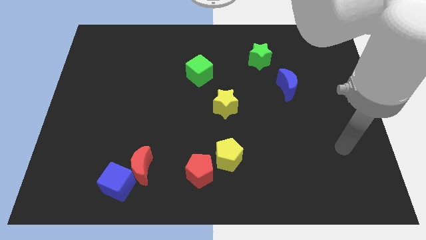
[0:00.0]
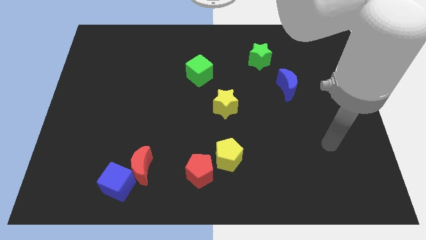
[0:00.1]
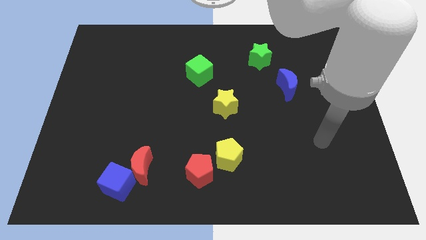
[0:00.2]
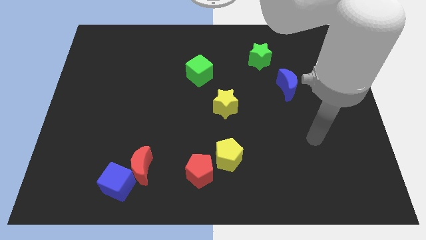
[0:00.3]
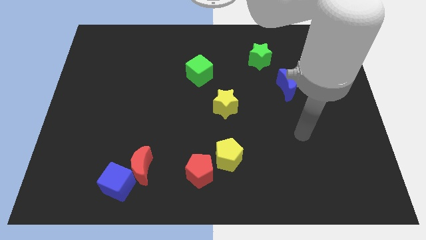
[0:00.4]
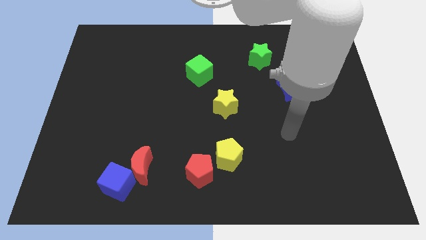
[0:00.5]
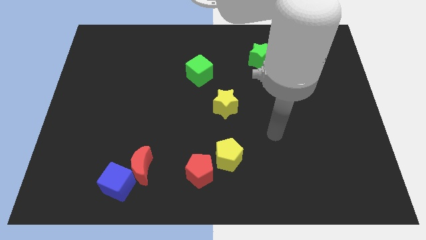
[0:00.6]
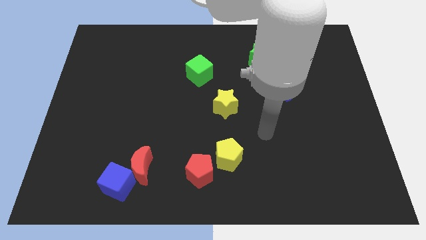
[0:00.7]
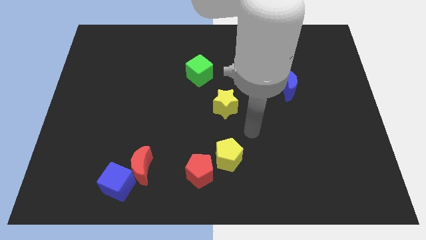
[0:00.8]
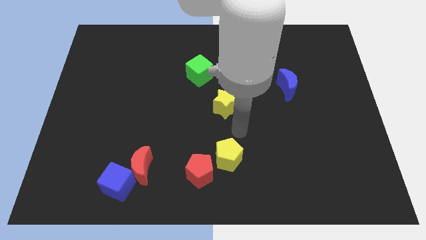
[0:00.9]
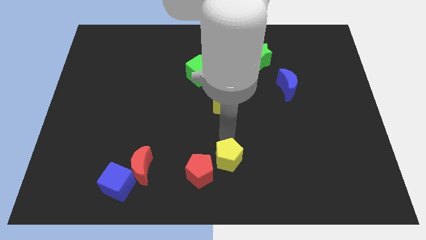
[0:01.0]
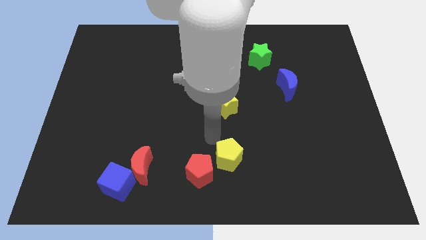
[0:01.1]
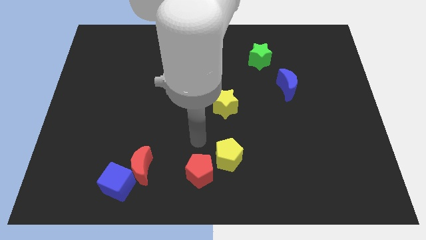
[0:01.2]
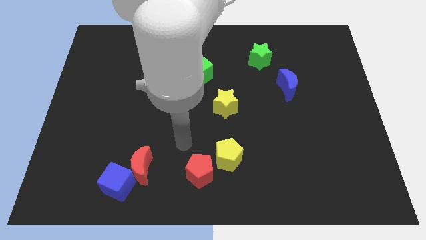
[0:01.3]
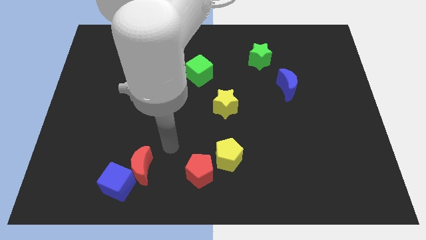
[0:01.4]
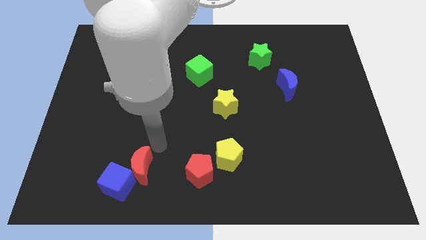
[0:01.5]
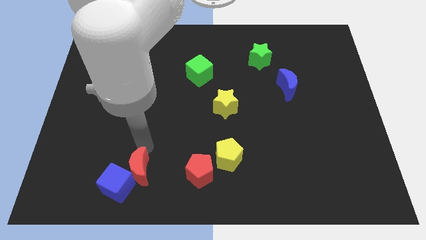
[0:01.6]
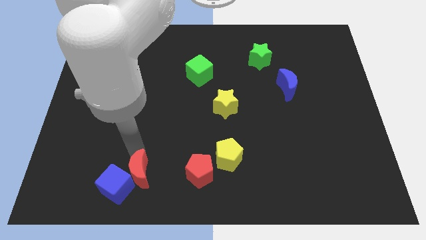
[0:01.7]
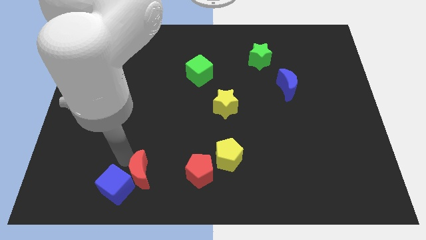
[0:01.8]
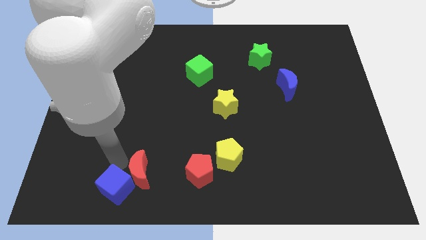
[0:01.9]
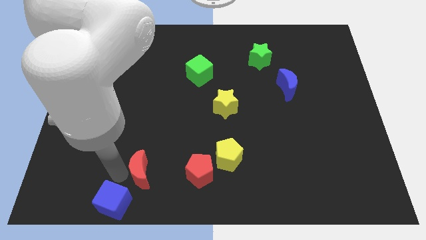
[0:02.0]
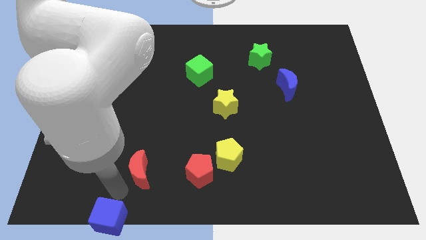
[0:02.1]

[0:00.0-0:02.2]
separate the red moon from the blue cube

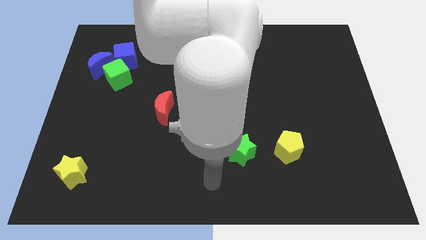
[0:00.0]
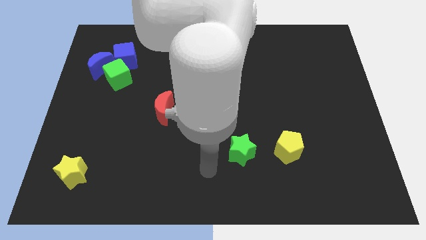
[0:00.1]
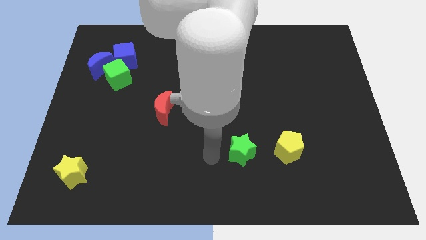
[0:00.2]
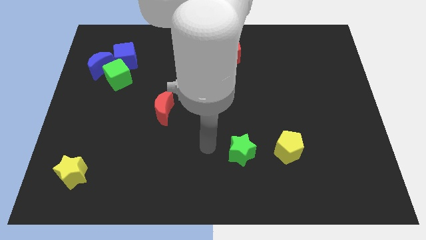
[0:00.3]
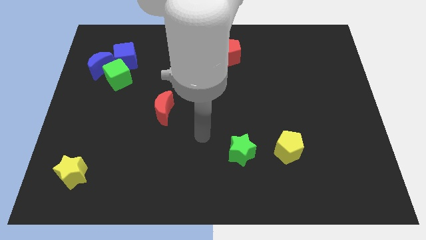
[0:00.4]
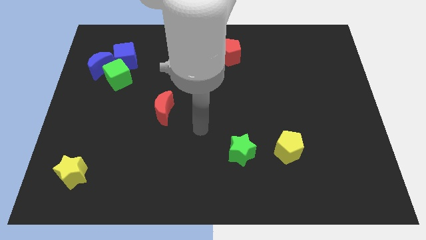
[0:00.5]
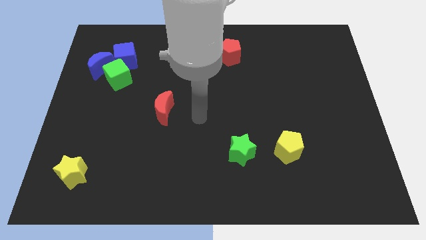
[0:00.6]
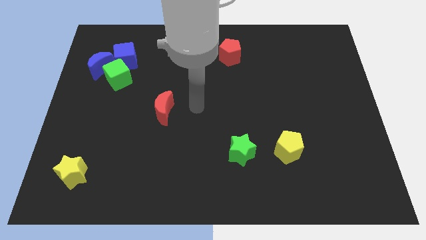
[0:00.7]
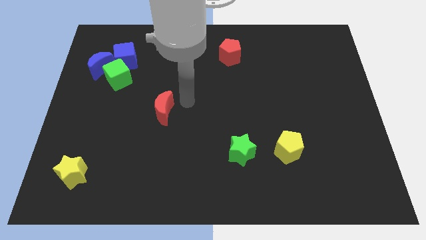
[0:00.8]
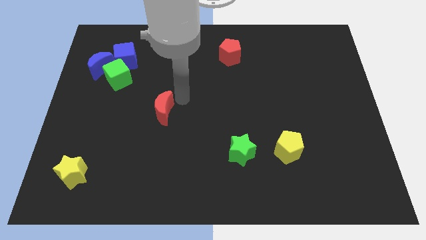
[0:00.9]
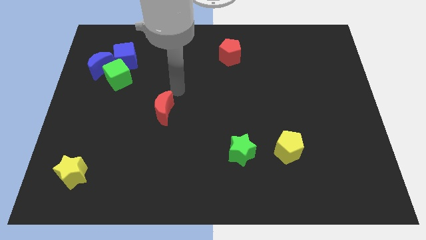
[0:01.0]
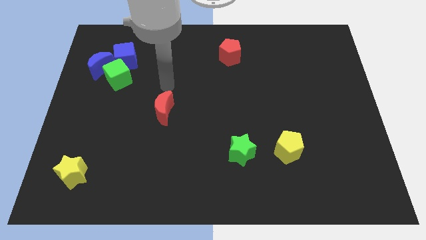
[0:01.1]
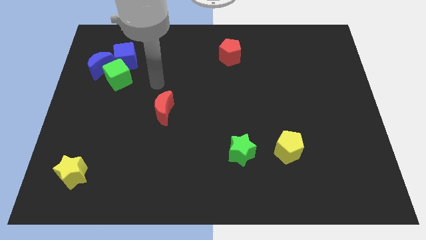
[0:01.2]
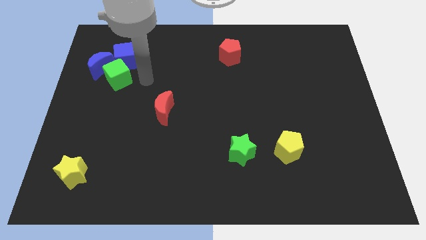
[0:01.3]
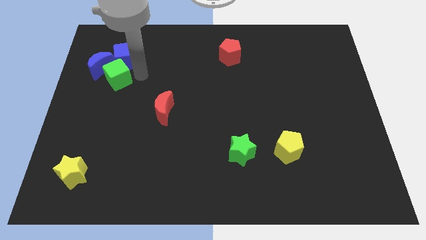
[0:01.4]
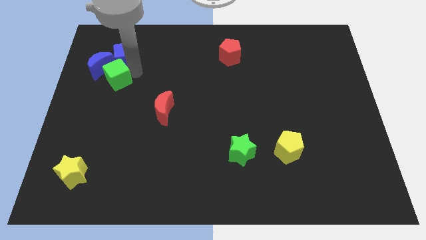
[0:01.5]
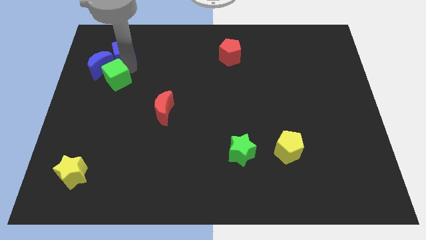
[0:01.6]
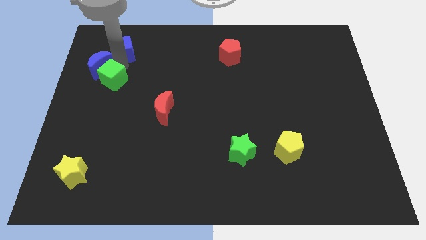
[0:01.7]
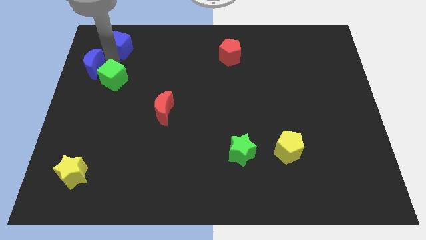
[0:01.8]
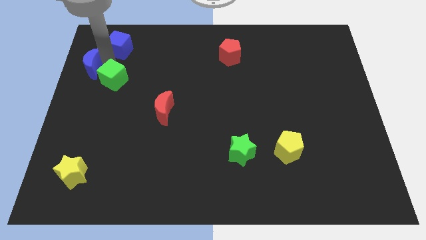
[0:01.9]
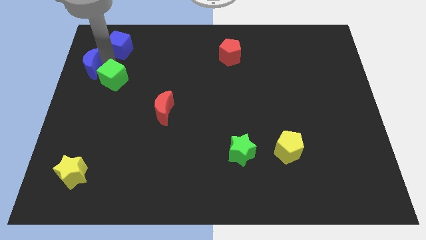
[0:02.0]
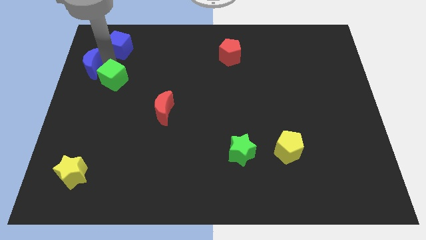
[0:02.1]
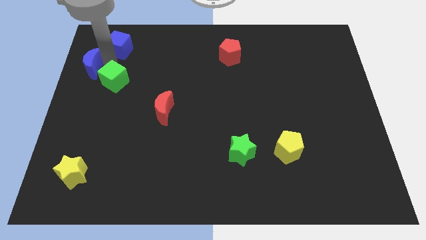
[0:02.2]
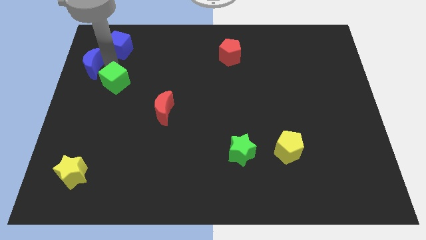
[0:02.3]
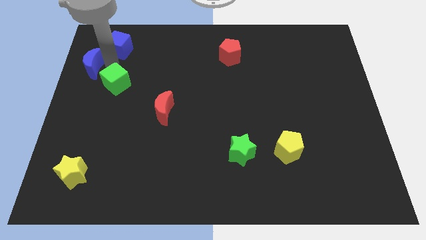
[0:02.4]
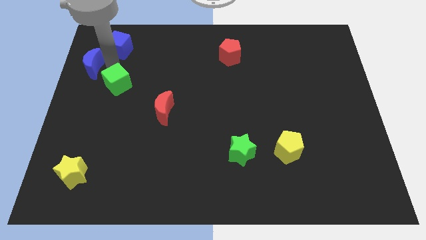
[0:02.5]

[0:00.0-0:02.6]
separate the green cube from the blue moon and blue cube

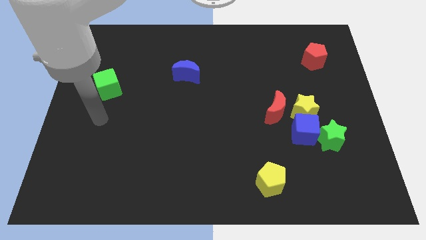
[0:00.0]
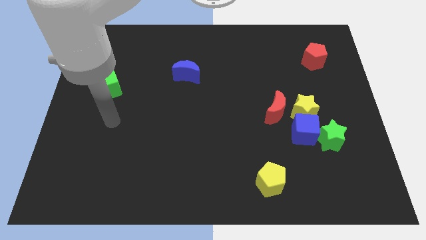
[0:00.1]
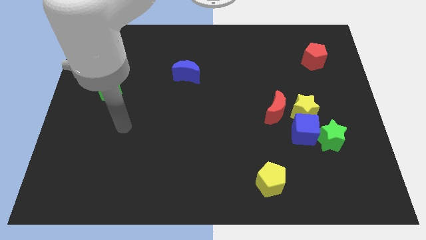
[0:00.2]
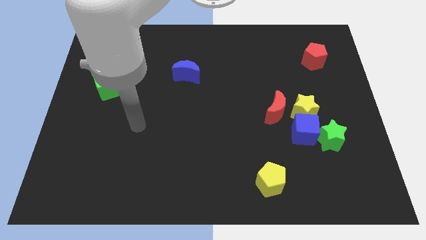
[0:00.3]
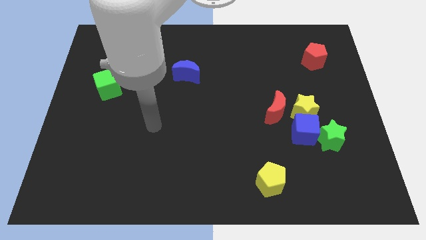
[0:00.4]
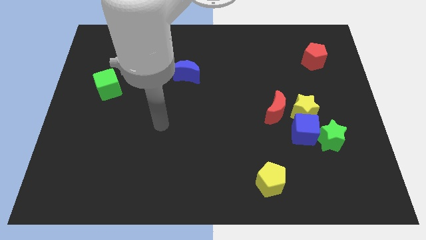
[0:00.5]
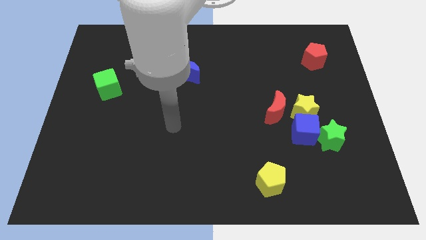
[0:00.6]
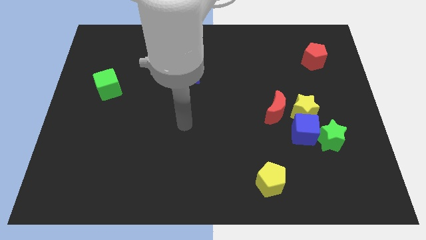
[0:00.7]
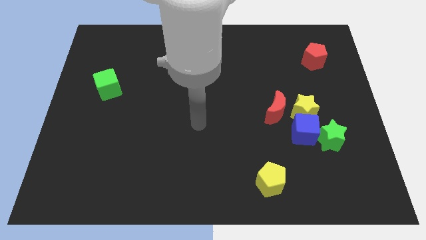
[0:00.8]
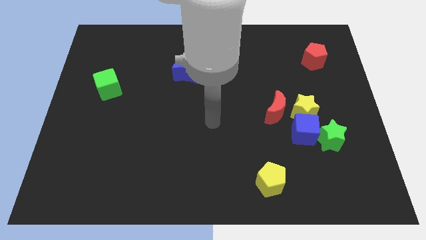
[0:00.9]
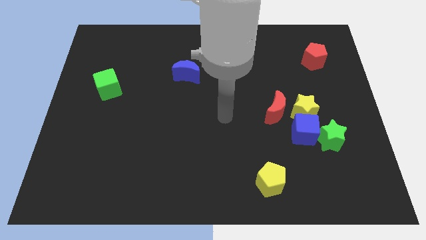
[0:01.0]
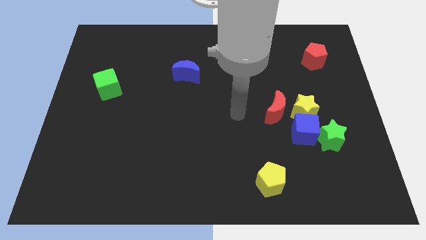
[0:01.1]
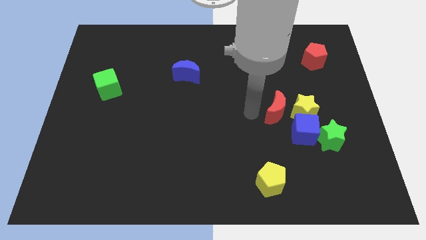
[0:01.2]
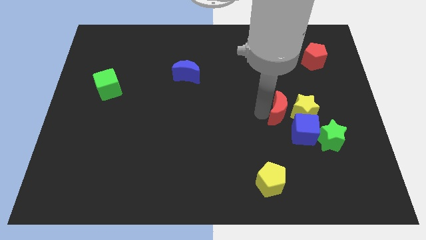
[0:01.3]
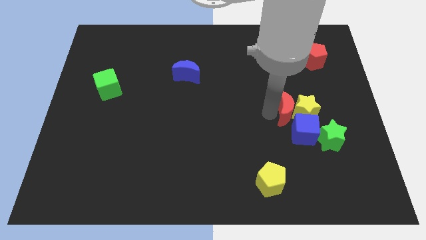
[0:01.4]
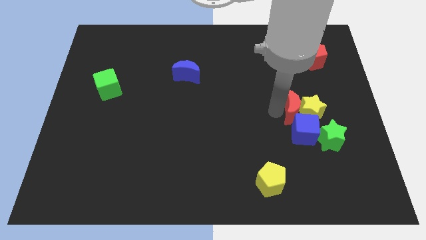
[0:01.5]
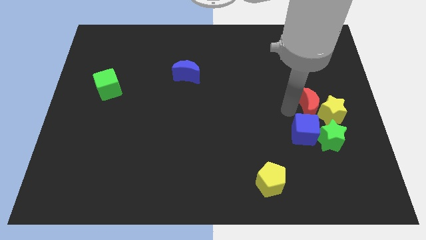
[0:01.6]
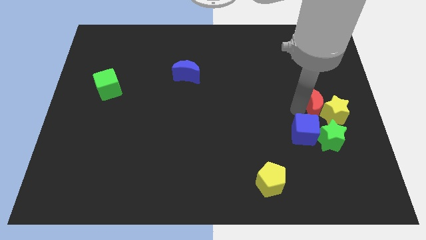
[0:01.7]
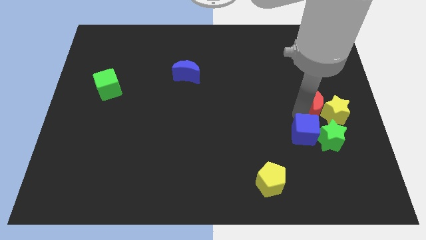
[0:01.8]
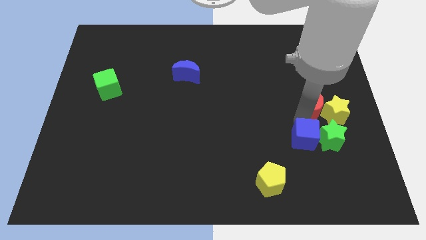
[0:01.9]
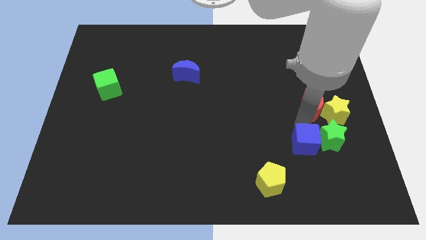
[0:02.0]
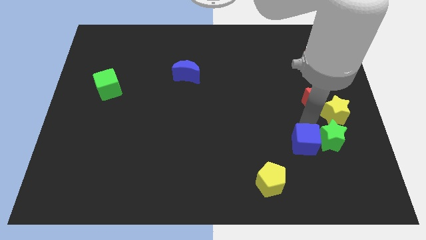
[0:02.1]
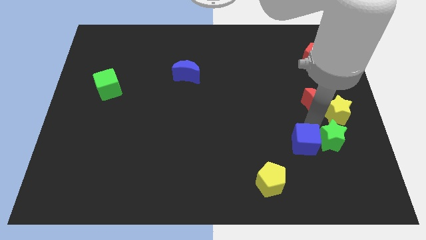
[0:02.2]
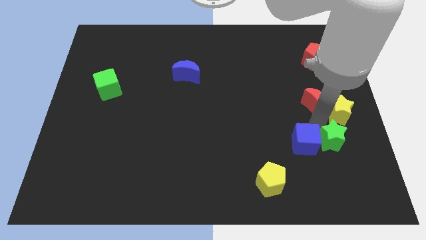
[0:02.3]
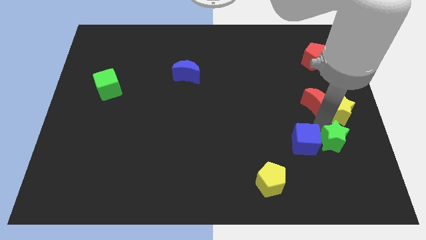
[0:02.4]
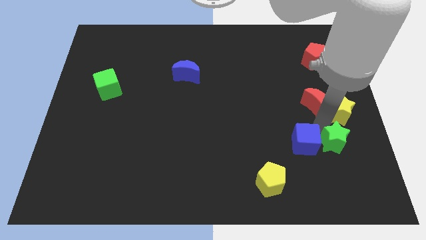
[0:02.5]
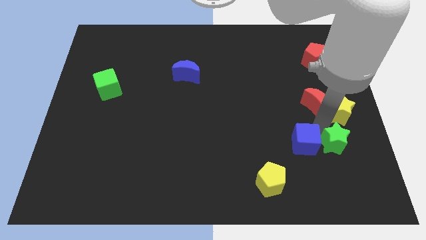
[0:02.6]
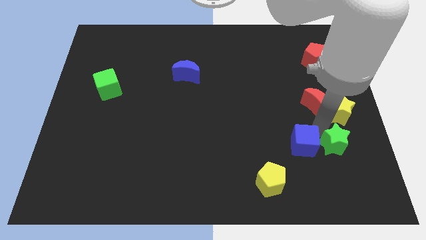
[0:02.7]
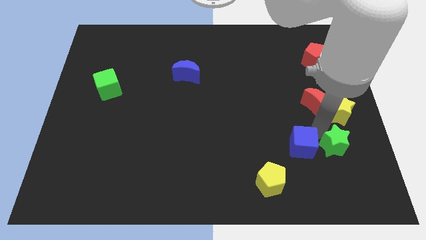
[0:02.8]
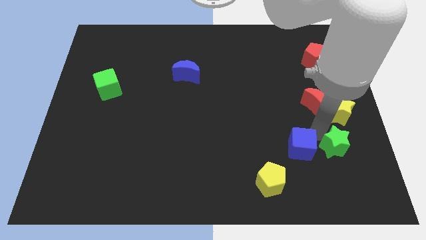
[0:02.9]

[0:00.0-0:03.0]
separate the blue cube from the clump

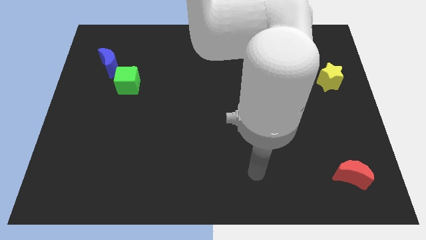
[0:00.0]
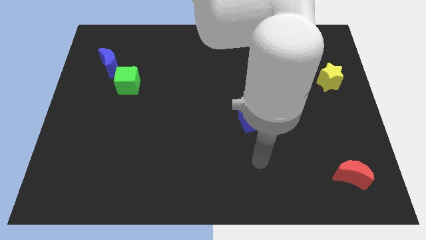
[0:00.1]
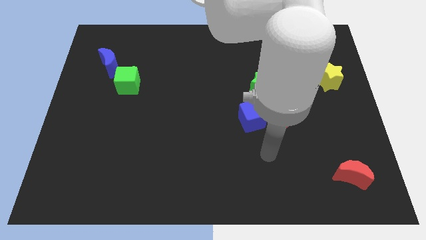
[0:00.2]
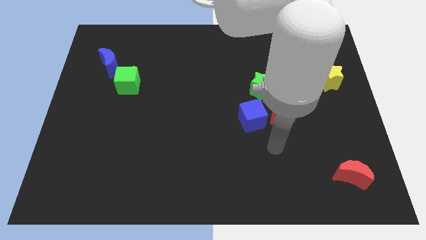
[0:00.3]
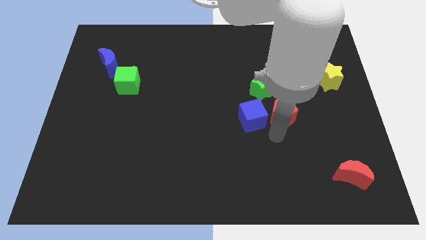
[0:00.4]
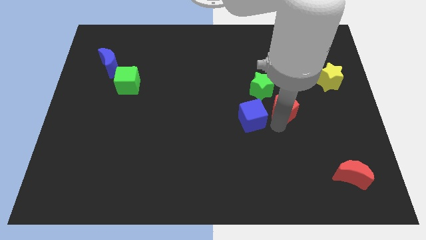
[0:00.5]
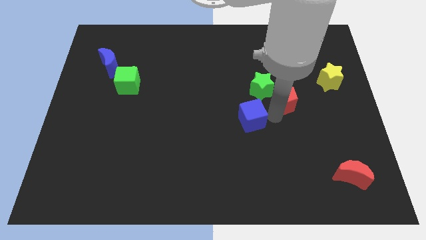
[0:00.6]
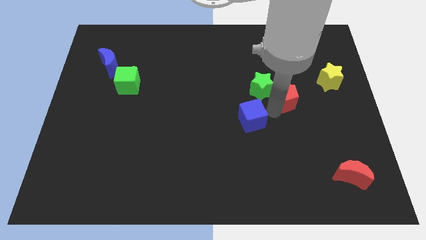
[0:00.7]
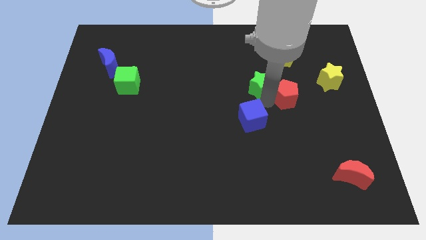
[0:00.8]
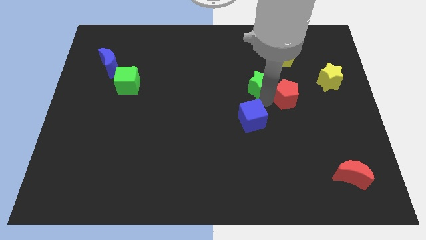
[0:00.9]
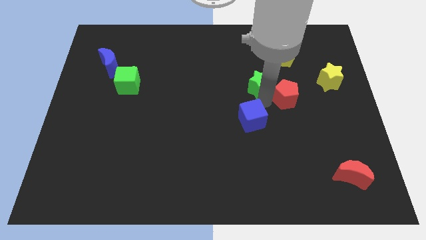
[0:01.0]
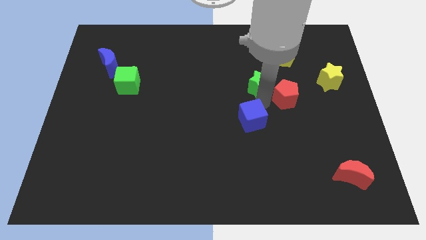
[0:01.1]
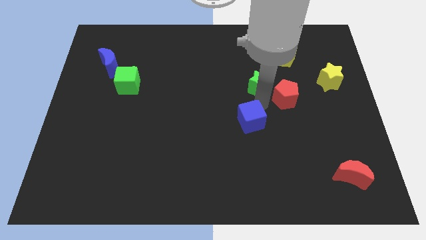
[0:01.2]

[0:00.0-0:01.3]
move the blue cube away from the red pentagon and green star

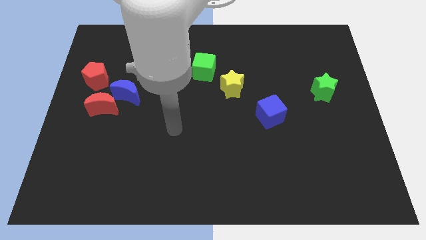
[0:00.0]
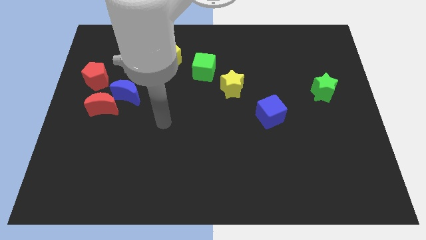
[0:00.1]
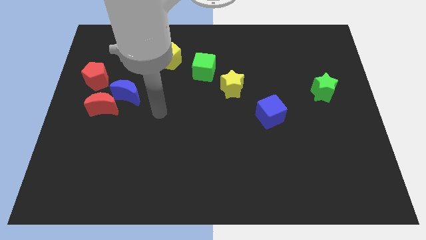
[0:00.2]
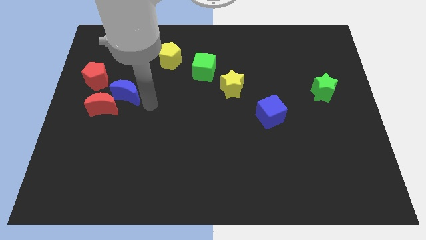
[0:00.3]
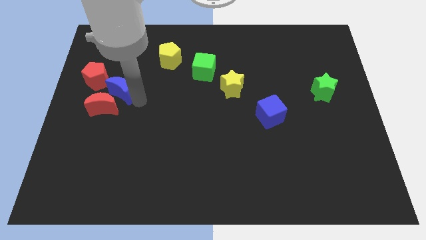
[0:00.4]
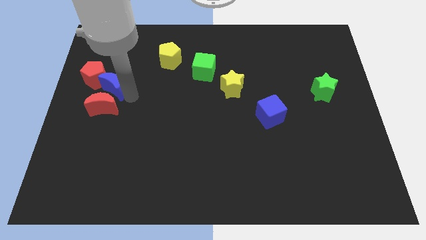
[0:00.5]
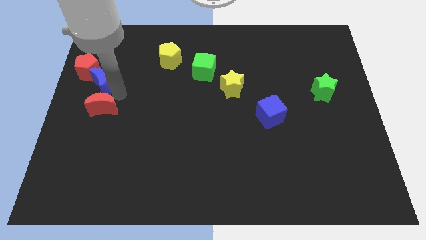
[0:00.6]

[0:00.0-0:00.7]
move the red moon away from the blue moon and red pentagon
